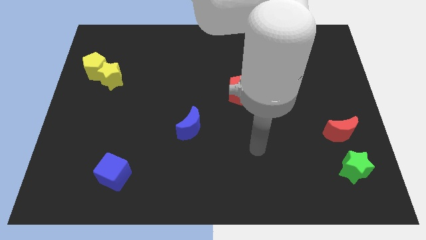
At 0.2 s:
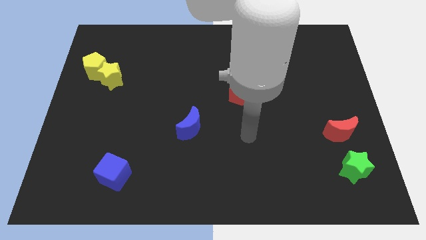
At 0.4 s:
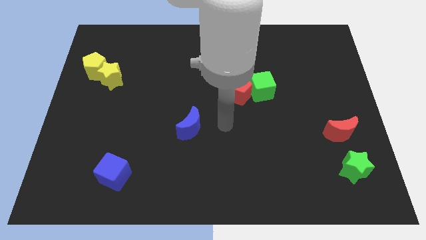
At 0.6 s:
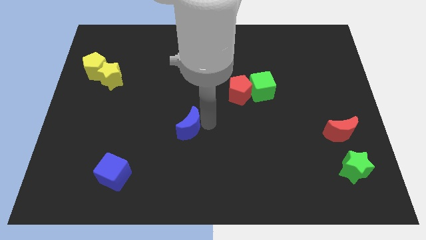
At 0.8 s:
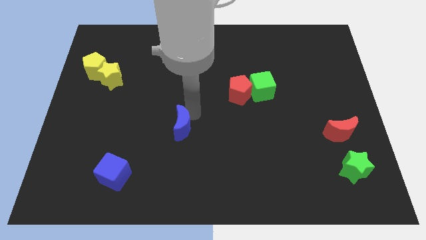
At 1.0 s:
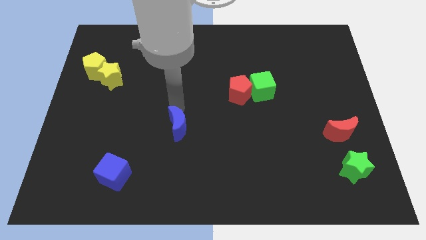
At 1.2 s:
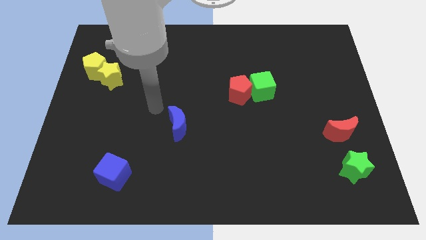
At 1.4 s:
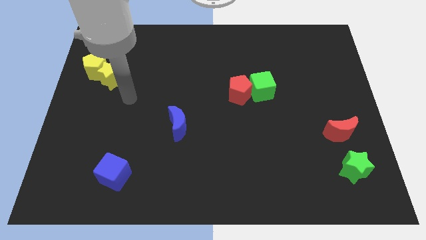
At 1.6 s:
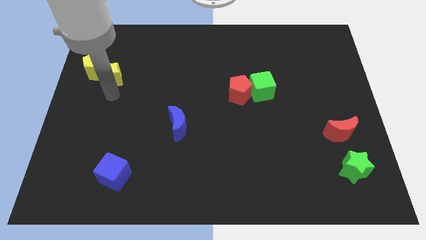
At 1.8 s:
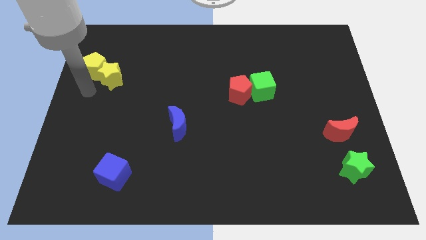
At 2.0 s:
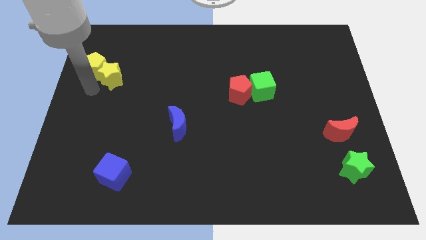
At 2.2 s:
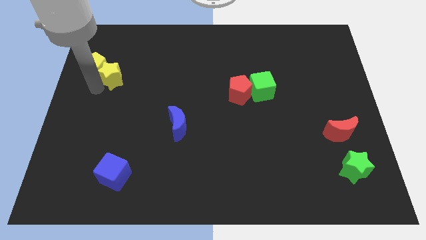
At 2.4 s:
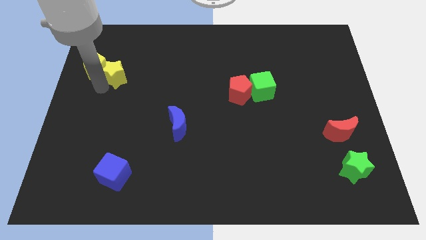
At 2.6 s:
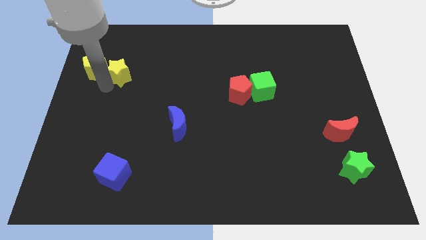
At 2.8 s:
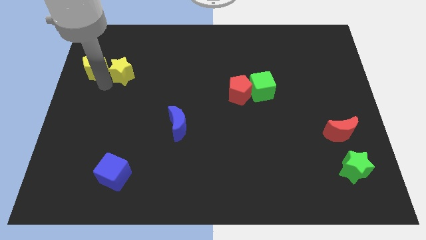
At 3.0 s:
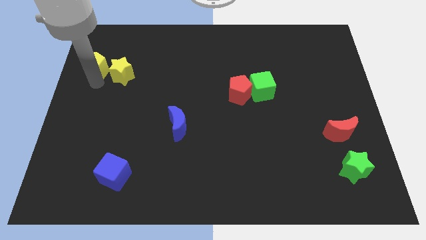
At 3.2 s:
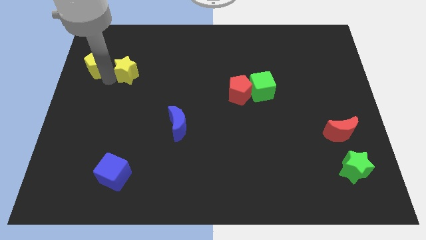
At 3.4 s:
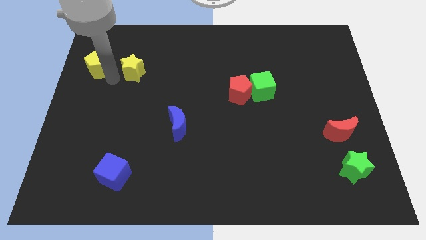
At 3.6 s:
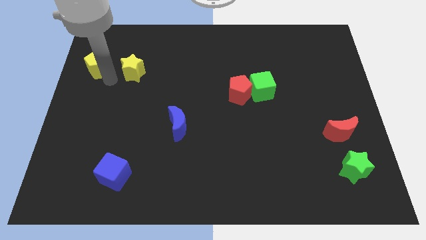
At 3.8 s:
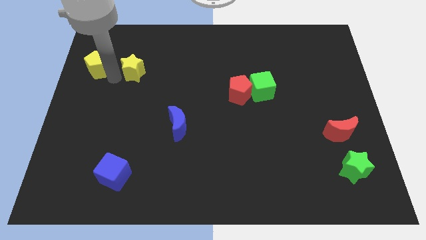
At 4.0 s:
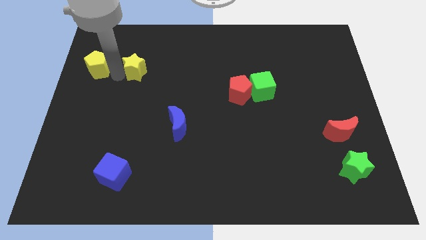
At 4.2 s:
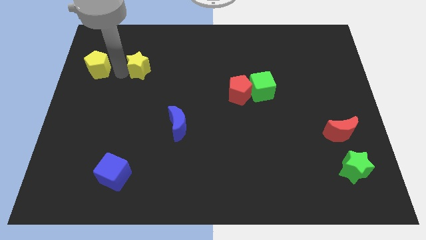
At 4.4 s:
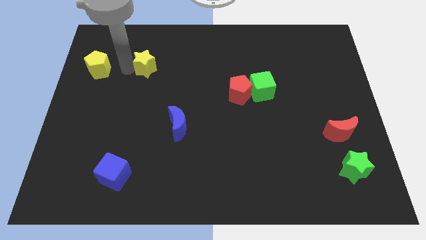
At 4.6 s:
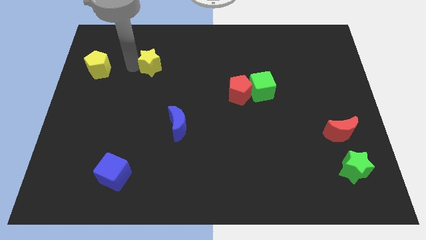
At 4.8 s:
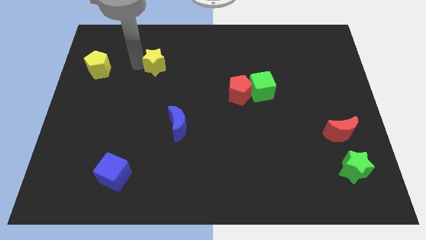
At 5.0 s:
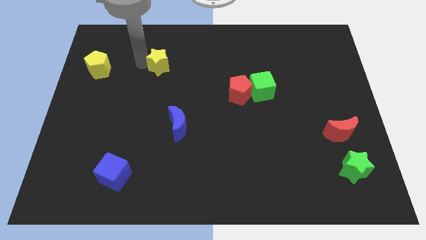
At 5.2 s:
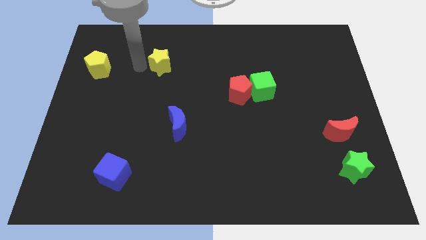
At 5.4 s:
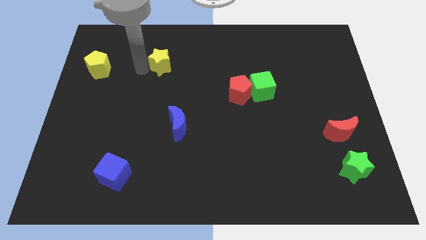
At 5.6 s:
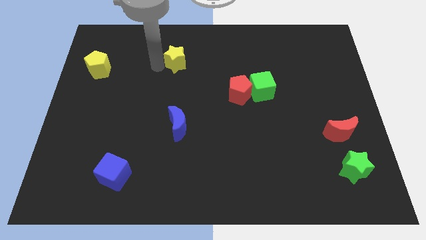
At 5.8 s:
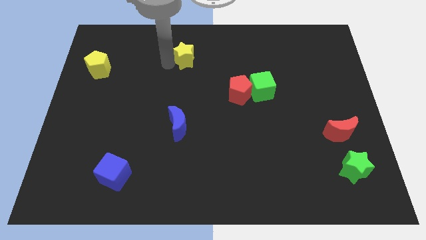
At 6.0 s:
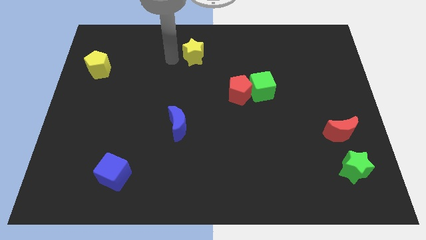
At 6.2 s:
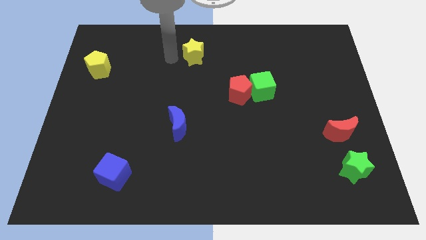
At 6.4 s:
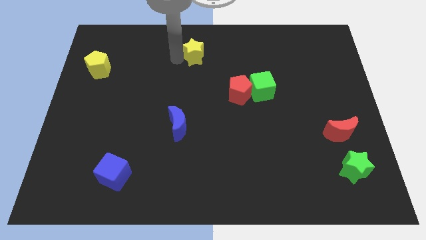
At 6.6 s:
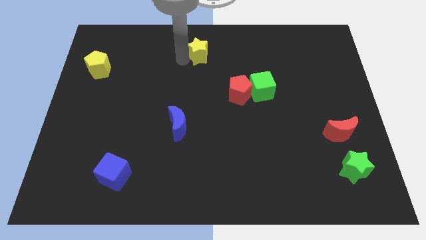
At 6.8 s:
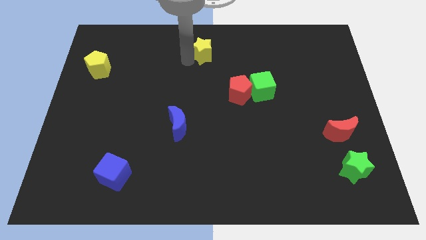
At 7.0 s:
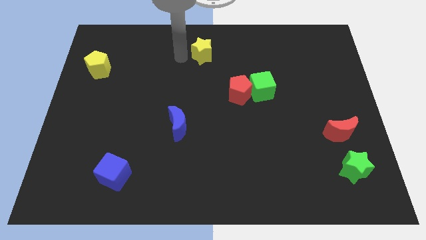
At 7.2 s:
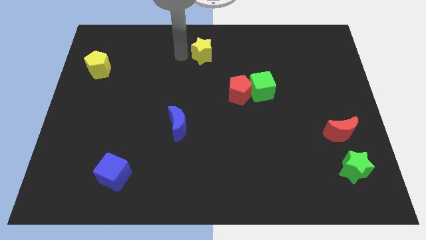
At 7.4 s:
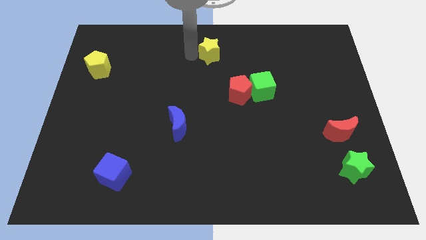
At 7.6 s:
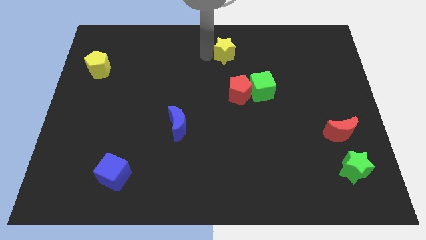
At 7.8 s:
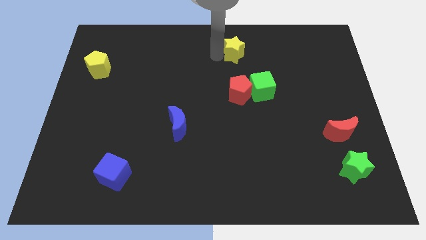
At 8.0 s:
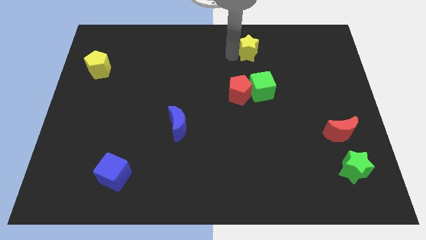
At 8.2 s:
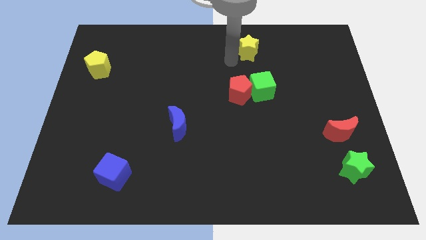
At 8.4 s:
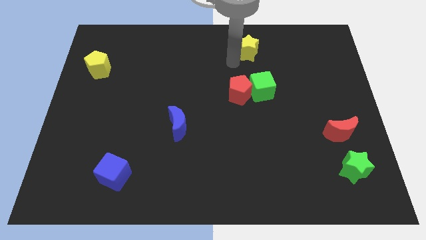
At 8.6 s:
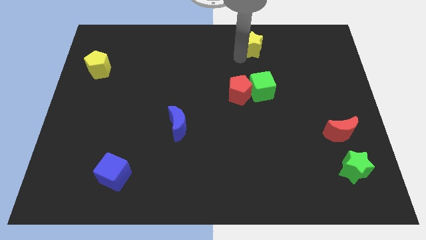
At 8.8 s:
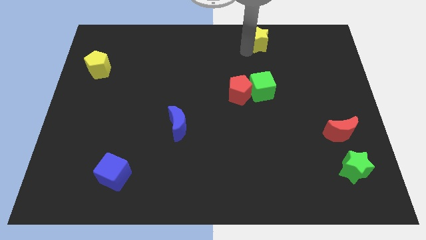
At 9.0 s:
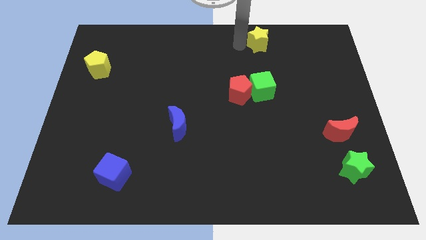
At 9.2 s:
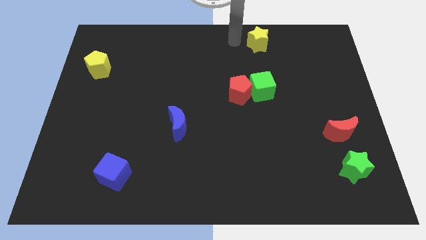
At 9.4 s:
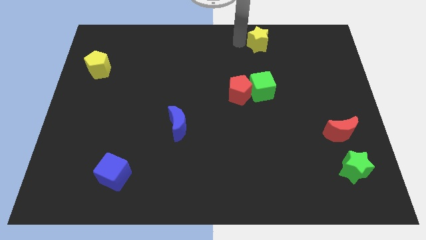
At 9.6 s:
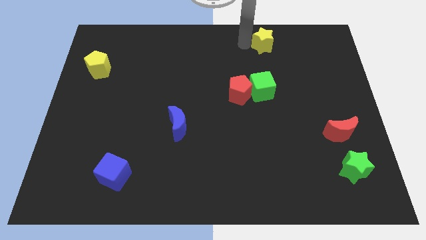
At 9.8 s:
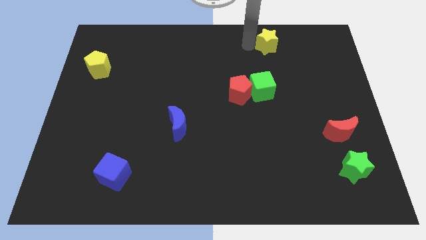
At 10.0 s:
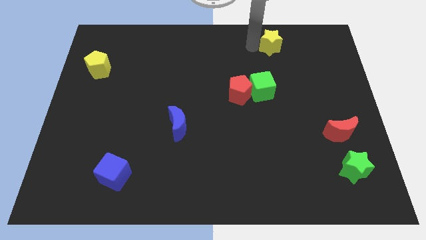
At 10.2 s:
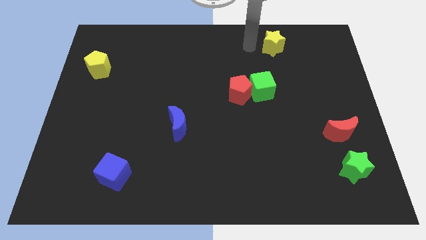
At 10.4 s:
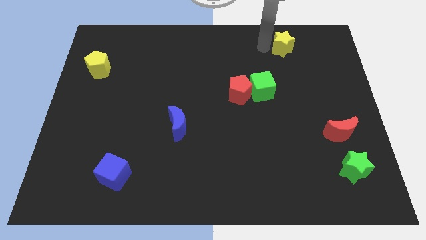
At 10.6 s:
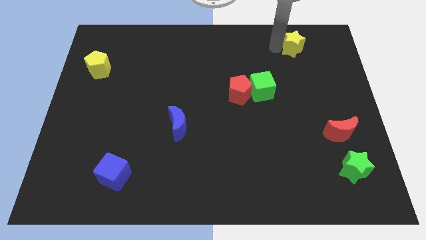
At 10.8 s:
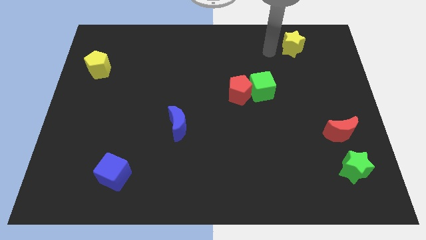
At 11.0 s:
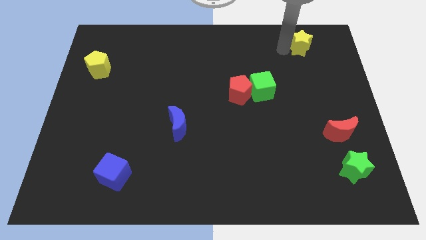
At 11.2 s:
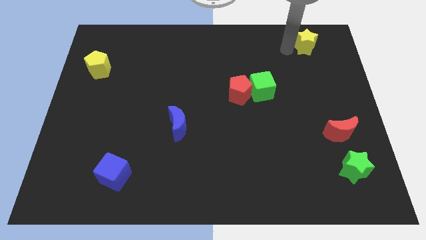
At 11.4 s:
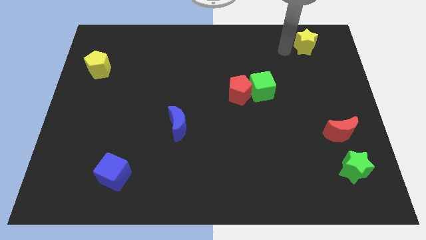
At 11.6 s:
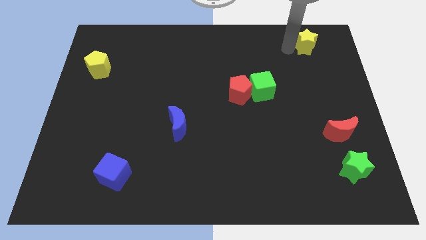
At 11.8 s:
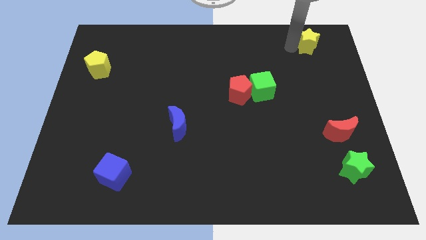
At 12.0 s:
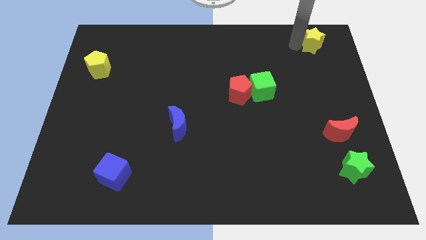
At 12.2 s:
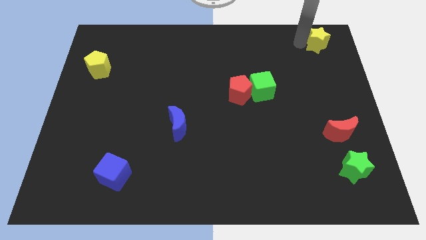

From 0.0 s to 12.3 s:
put the yellow star to the top right corner

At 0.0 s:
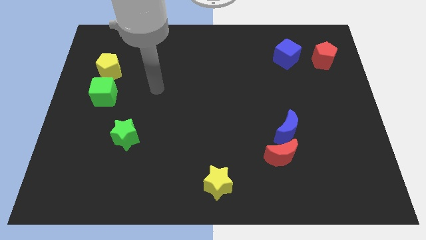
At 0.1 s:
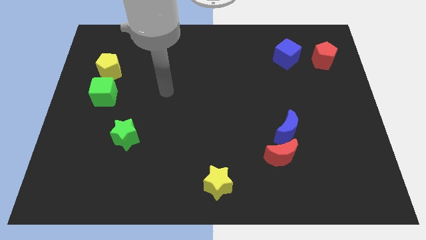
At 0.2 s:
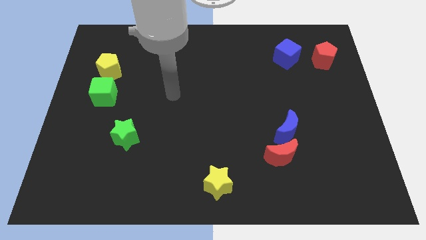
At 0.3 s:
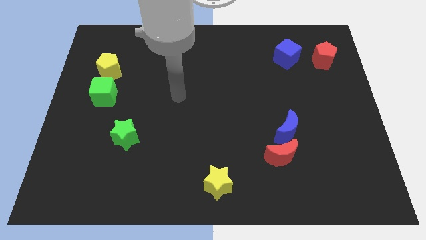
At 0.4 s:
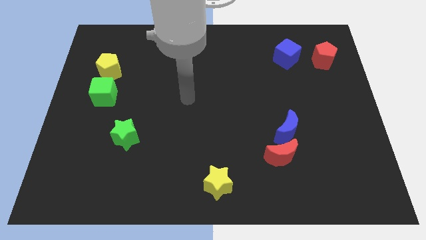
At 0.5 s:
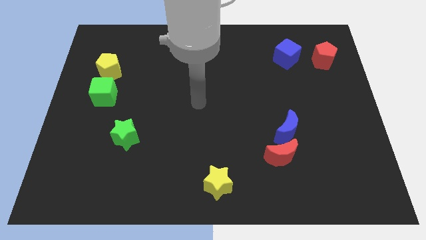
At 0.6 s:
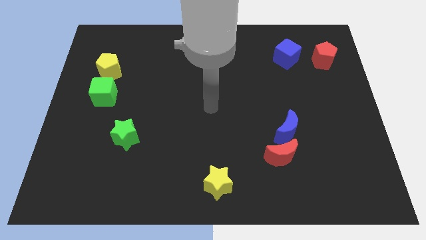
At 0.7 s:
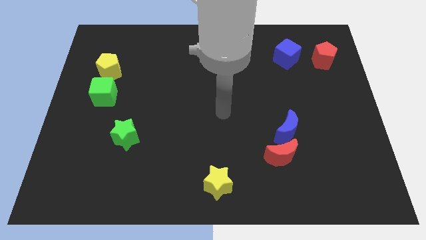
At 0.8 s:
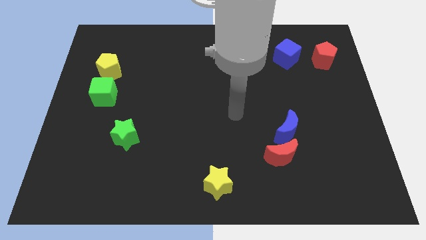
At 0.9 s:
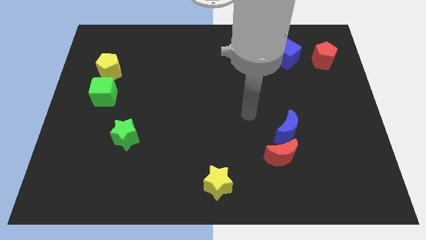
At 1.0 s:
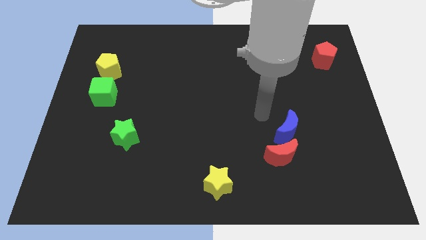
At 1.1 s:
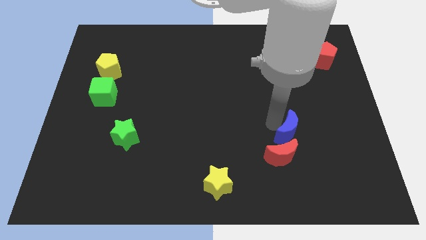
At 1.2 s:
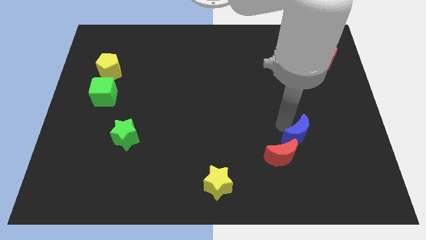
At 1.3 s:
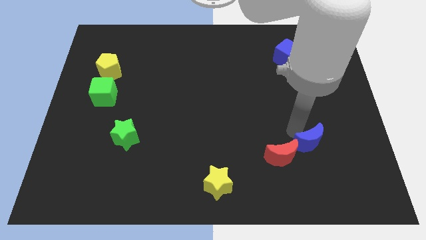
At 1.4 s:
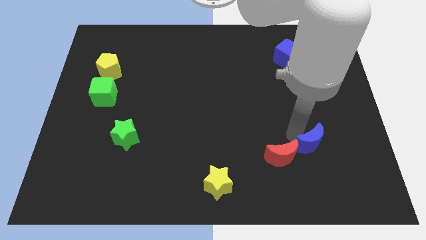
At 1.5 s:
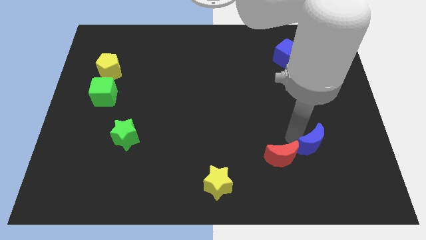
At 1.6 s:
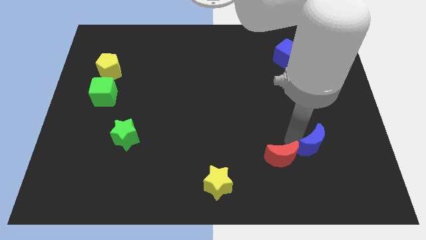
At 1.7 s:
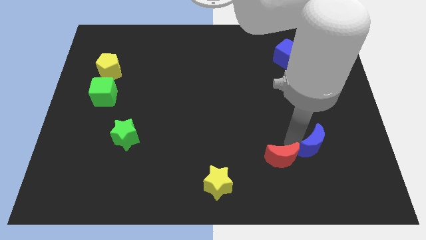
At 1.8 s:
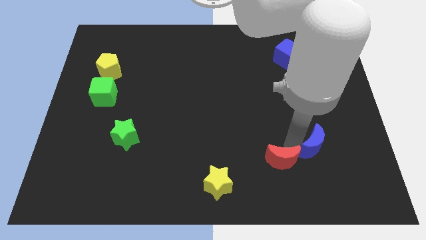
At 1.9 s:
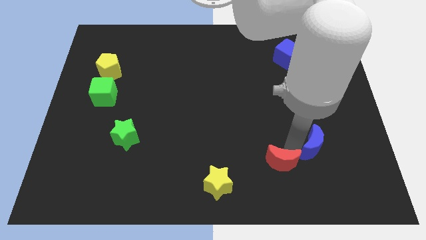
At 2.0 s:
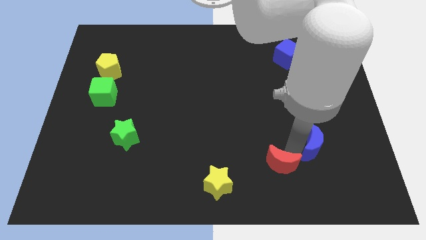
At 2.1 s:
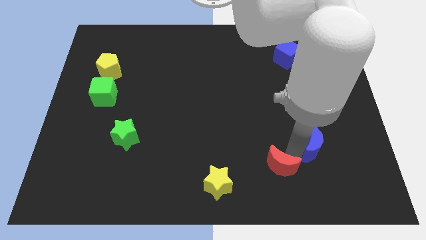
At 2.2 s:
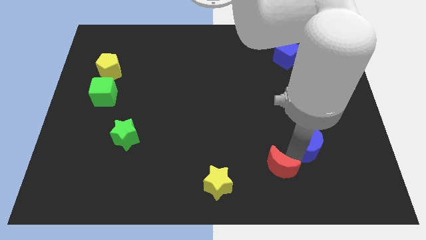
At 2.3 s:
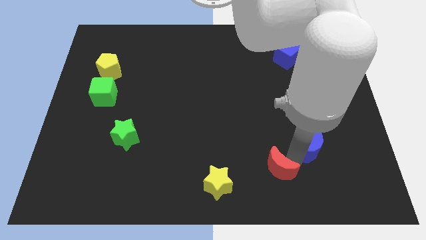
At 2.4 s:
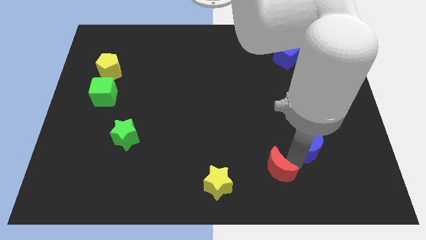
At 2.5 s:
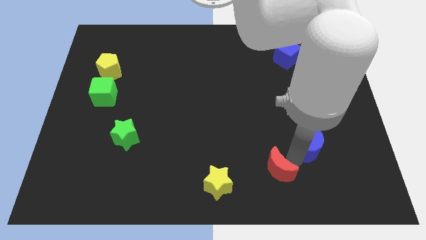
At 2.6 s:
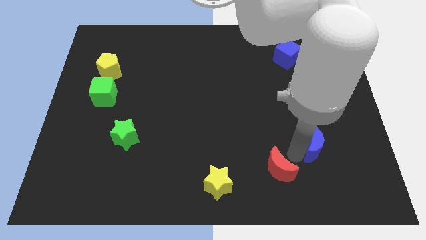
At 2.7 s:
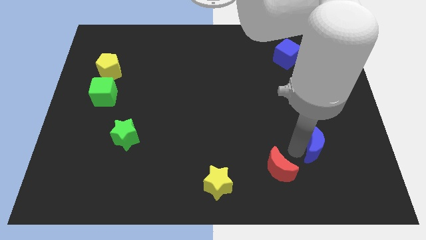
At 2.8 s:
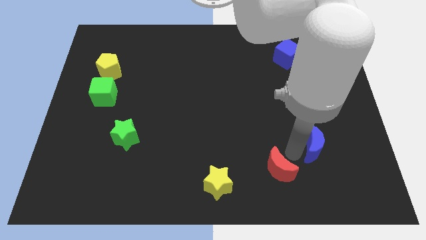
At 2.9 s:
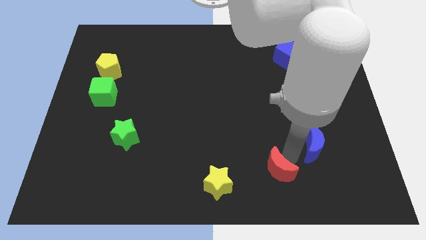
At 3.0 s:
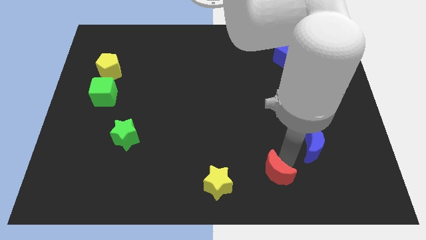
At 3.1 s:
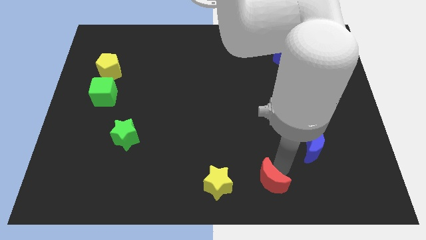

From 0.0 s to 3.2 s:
push the red moon to the bottom side
